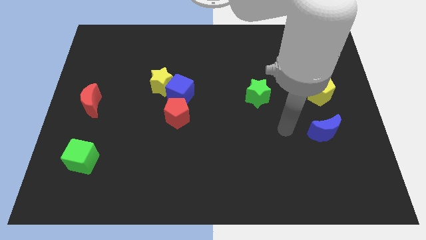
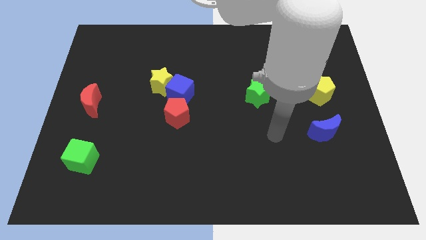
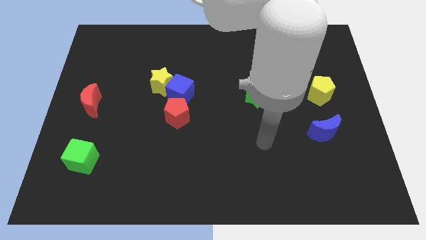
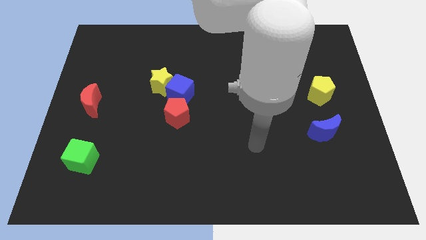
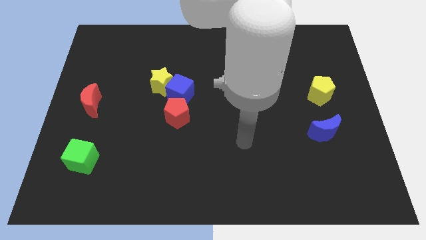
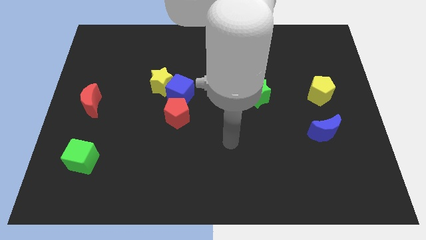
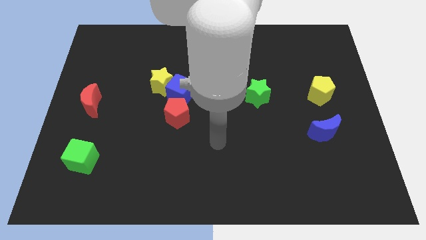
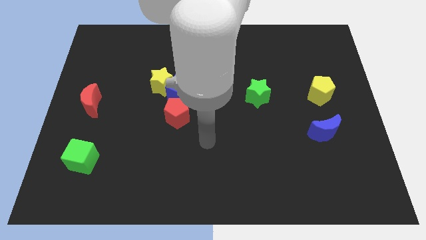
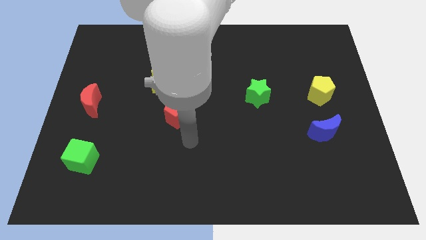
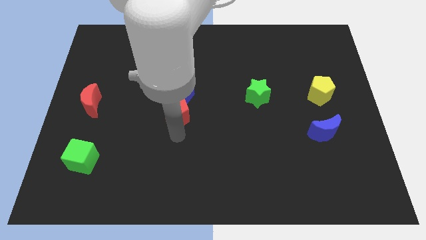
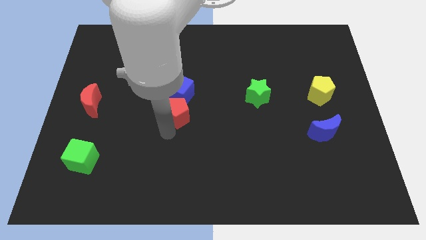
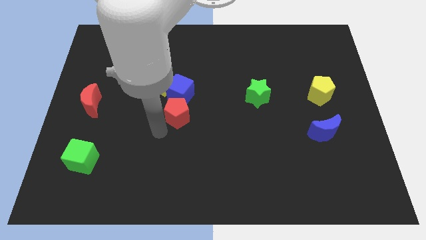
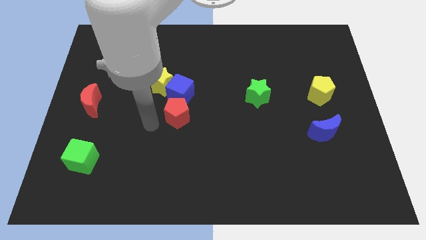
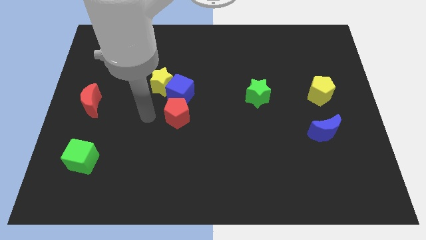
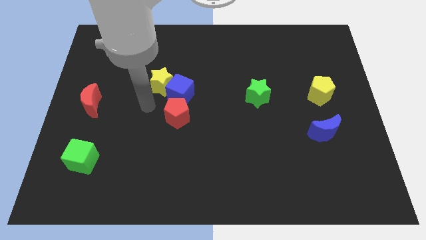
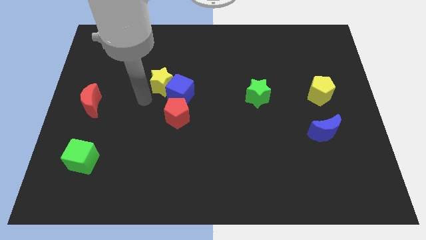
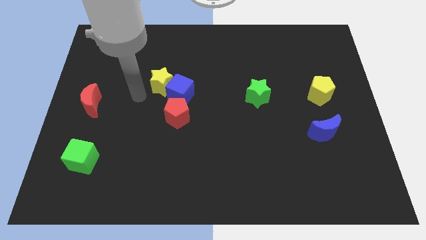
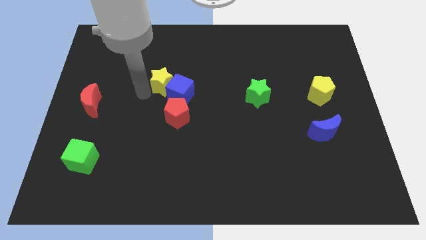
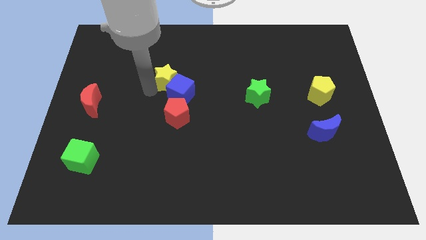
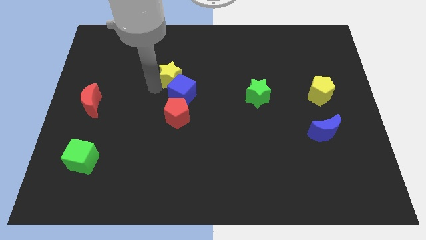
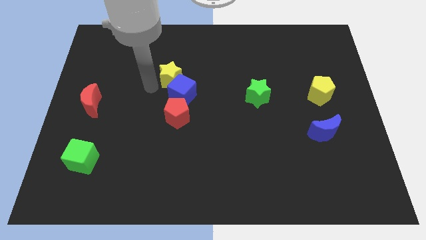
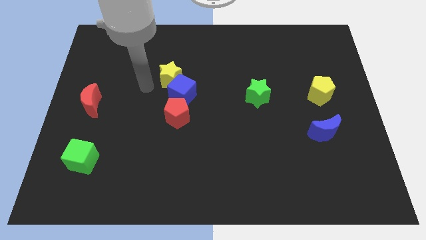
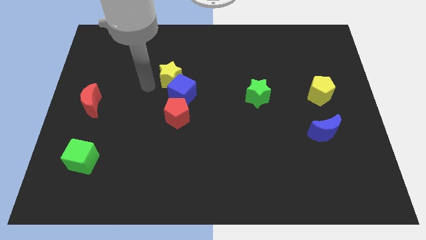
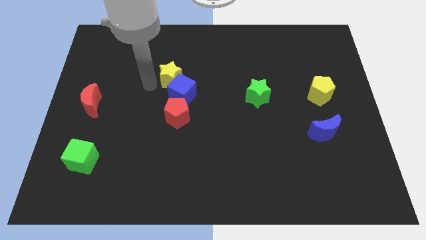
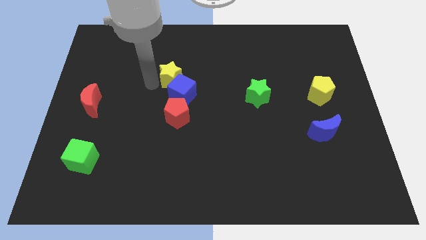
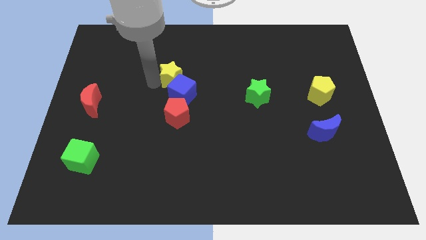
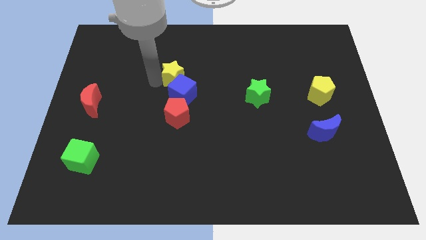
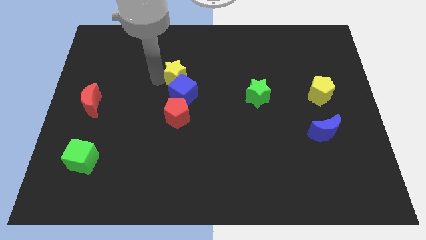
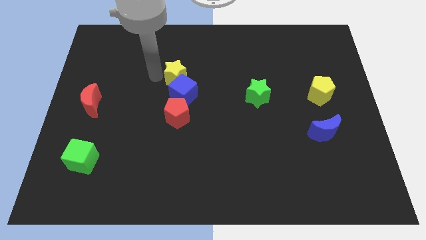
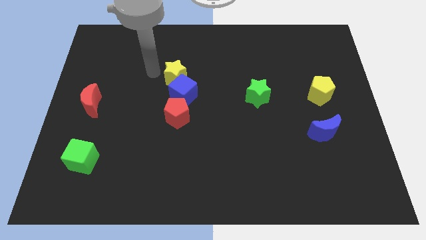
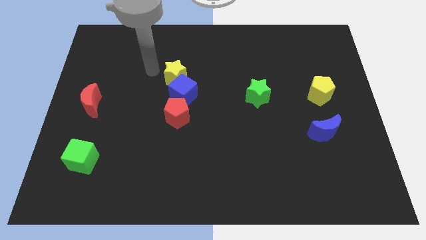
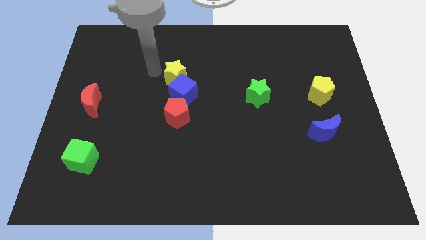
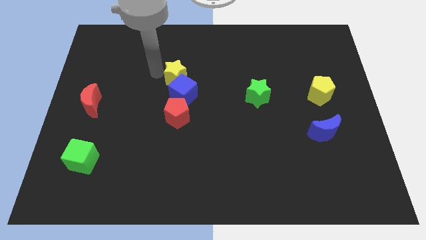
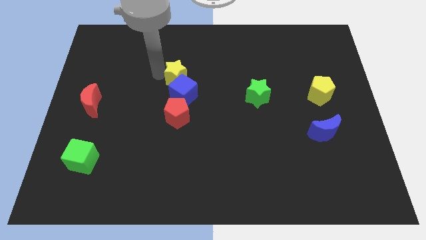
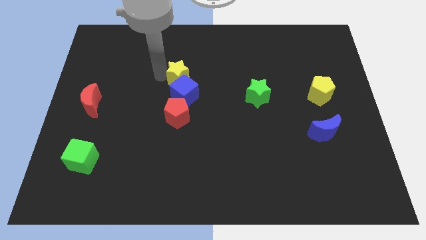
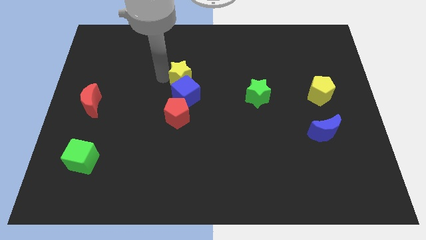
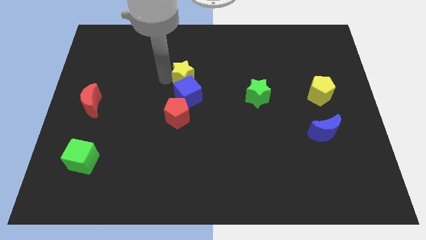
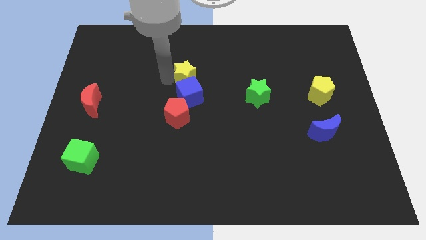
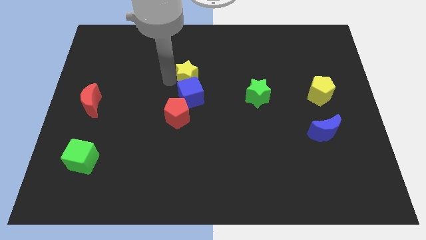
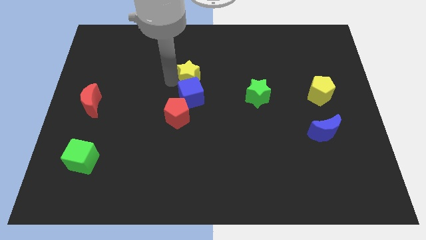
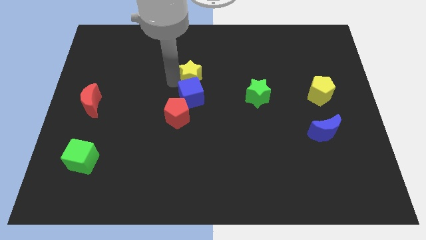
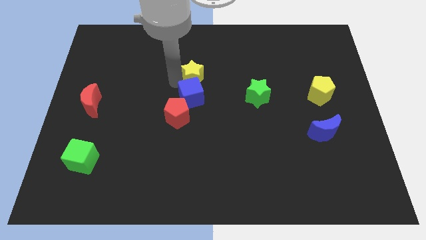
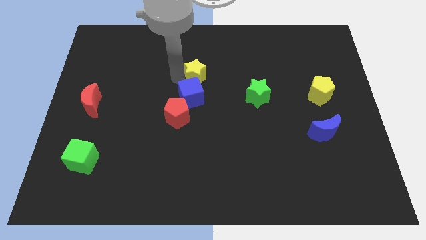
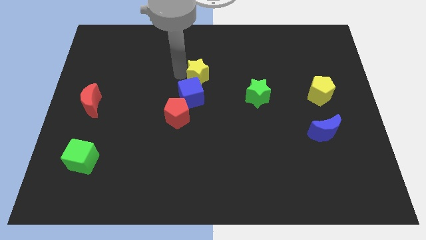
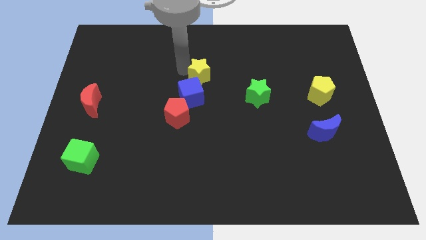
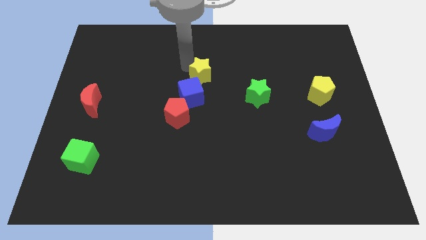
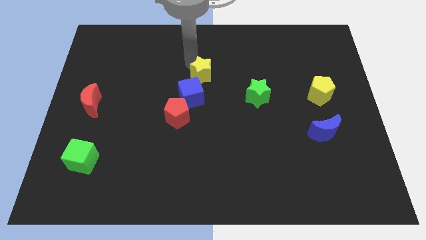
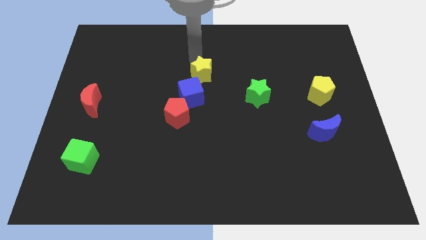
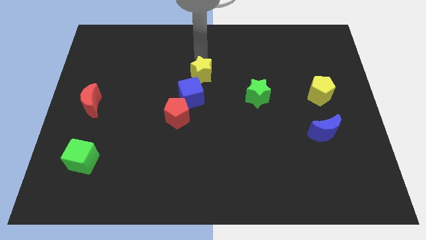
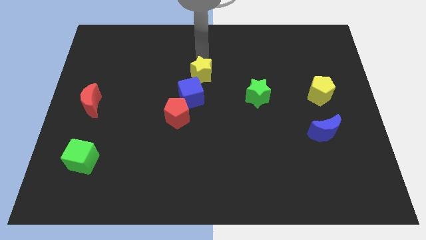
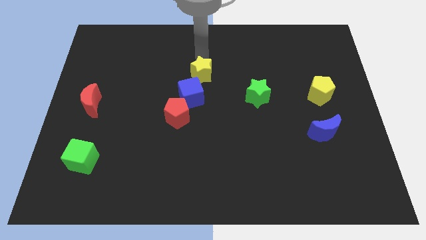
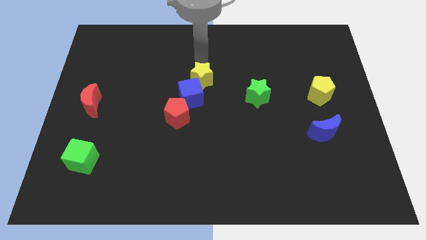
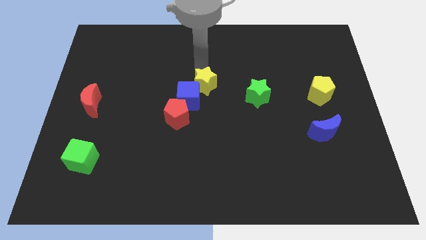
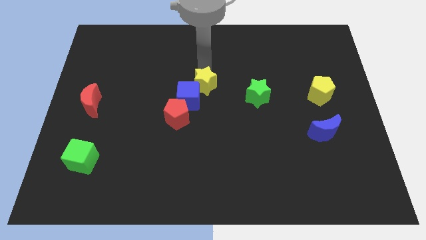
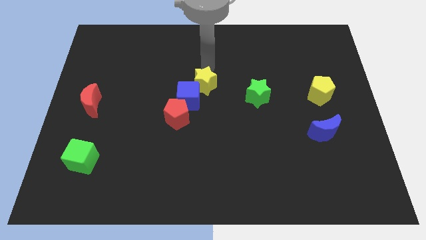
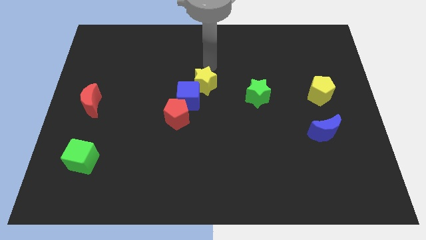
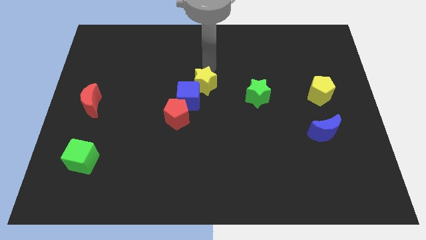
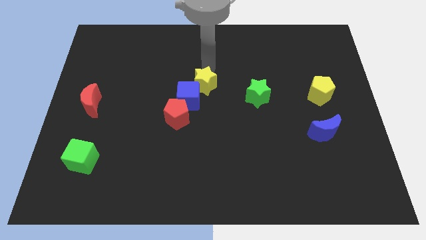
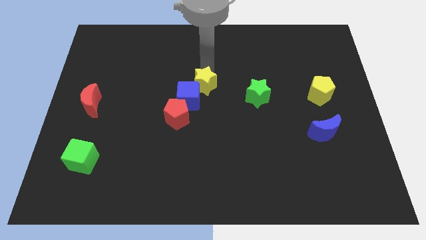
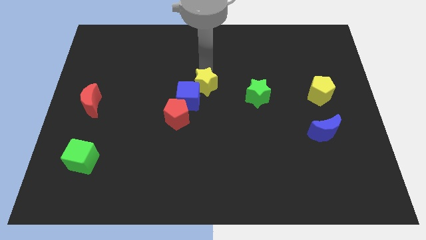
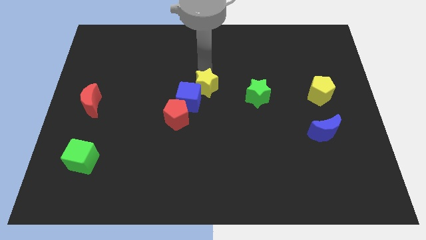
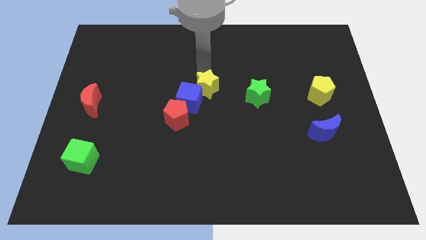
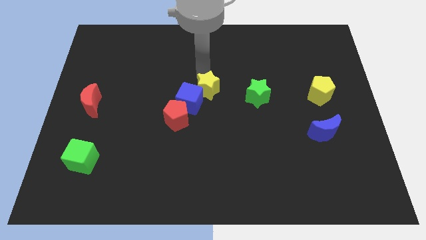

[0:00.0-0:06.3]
slide the yellow star diagonally down and to the right a little bit

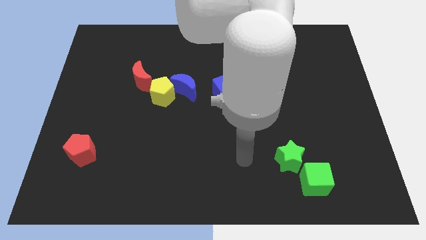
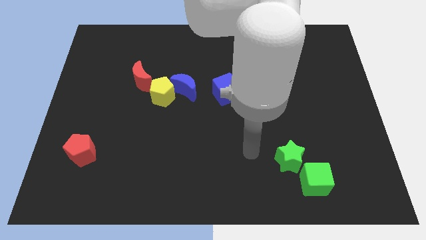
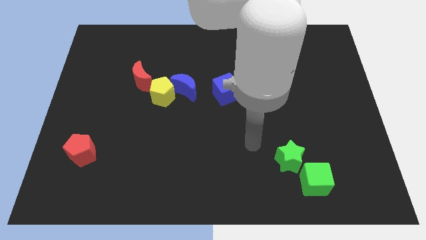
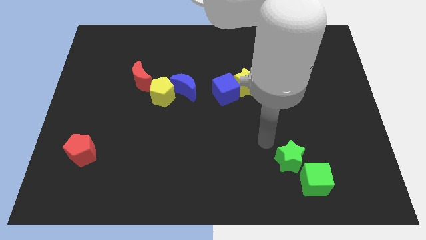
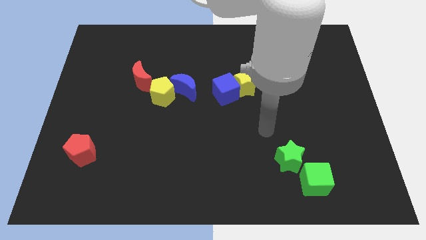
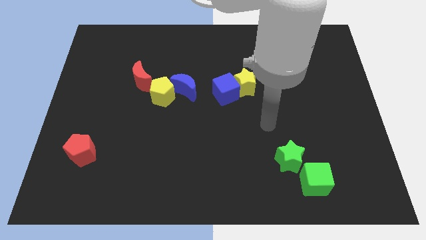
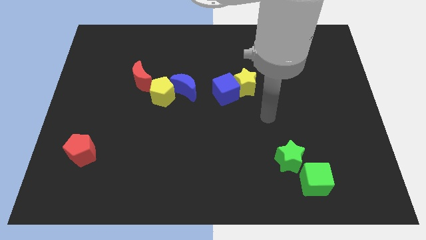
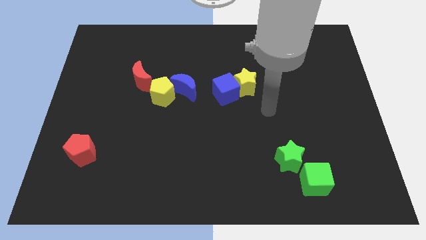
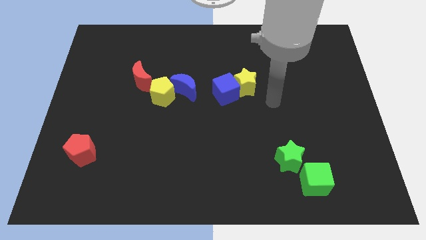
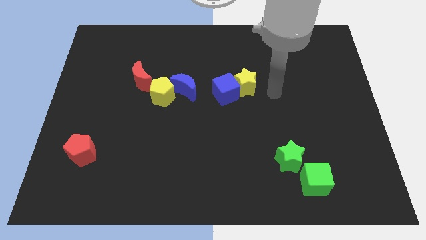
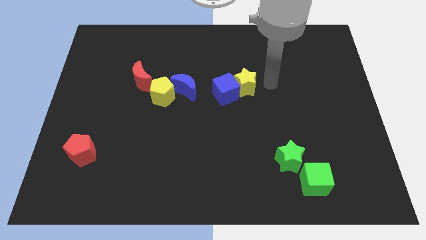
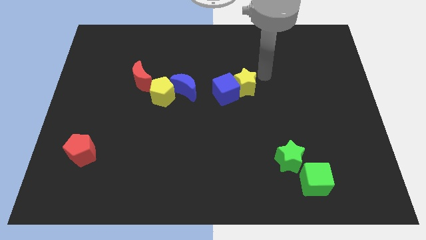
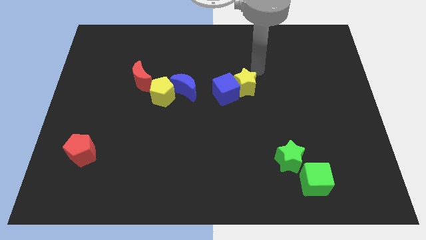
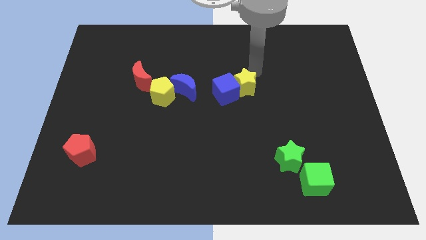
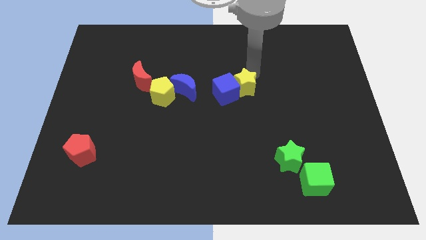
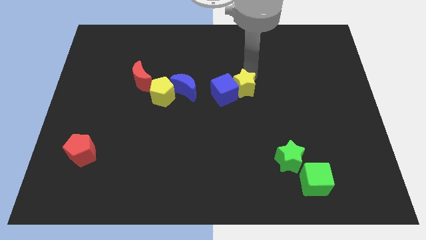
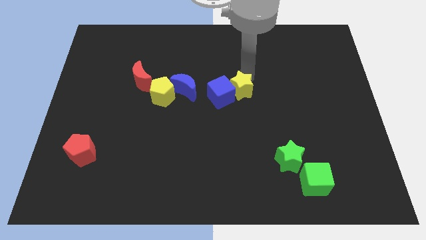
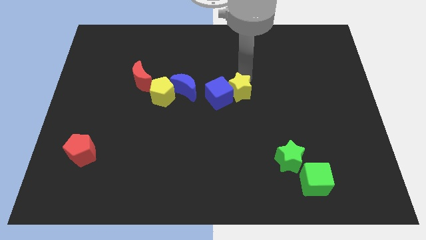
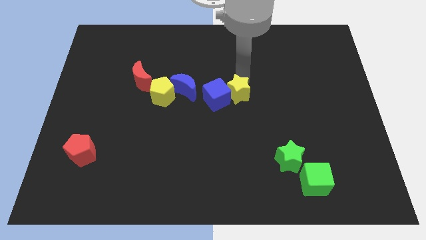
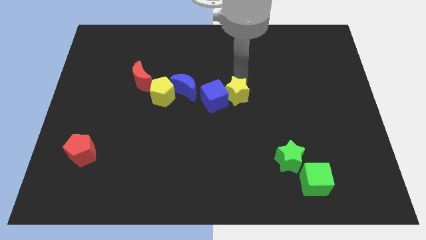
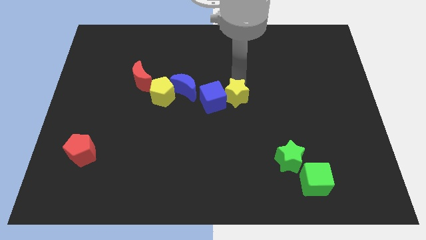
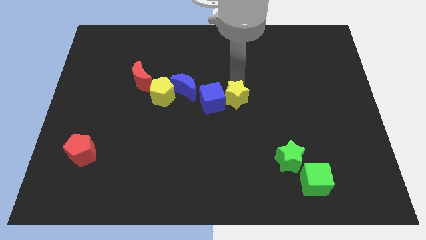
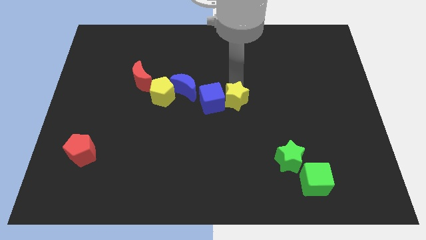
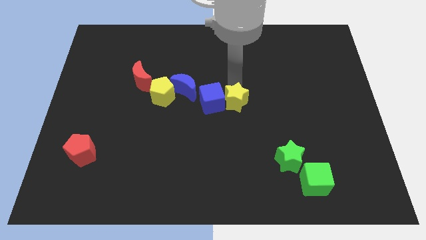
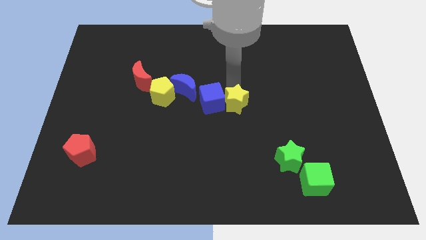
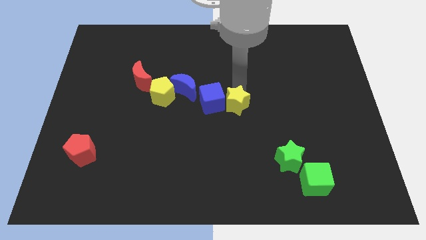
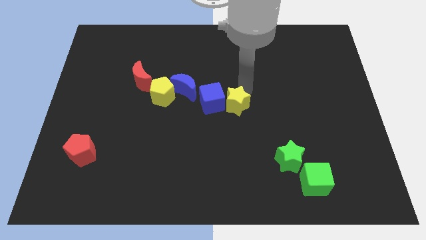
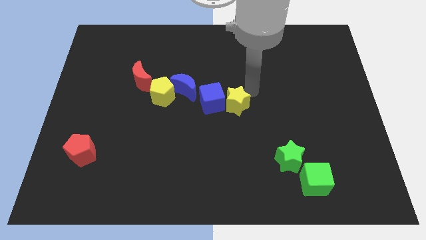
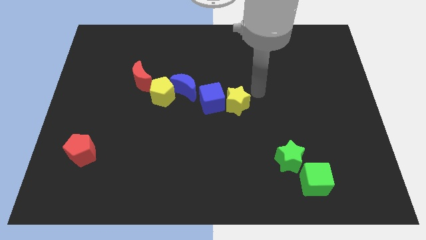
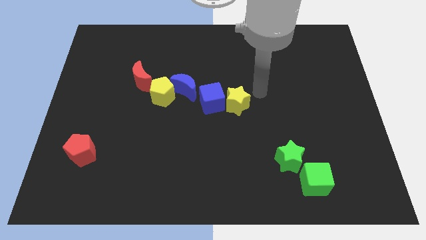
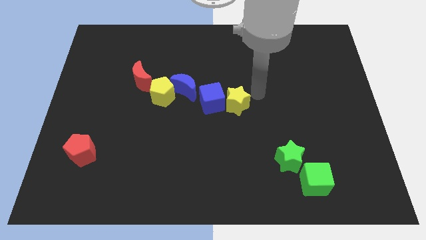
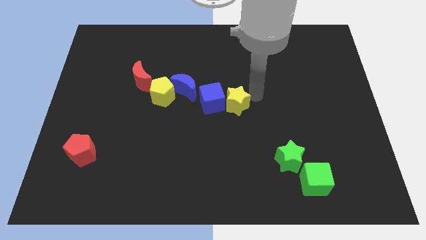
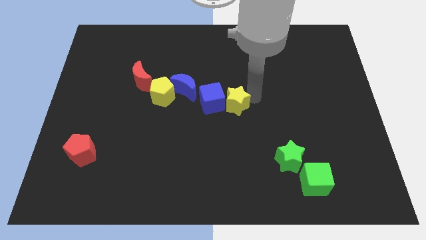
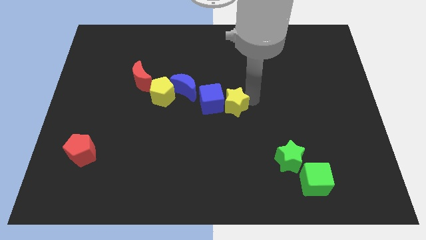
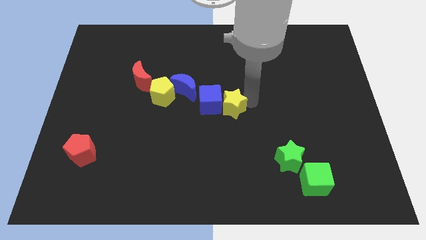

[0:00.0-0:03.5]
move the yellow star down and then to the left a little bit
